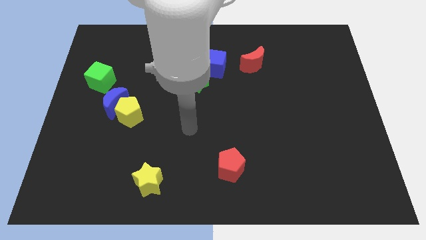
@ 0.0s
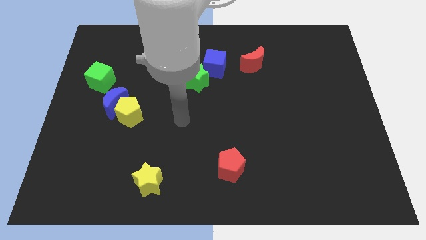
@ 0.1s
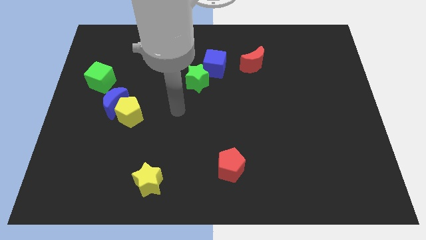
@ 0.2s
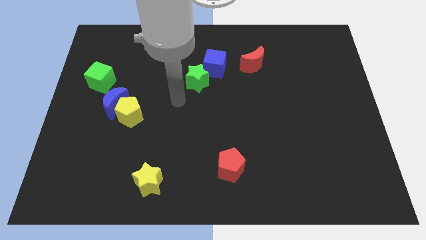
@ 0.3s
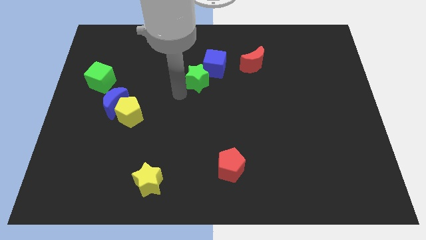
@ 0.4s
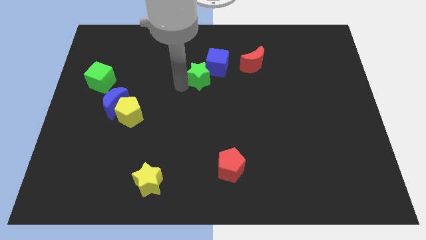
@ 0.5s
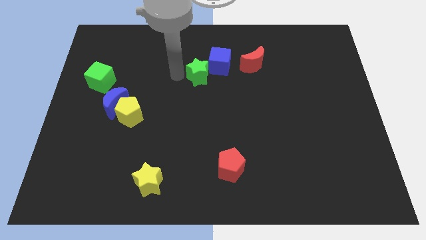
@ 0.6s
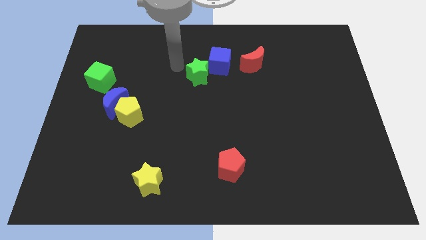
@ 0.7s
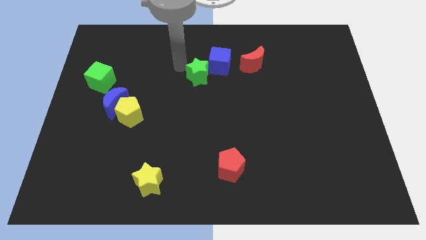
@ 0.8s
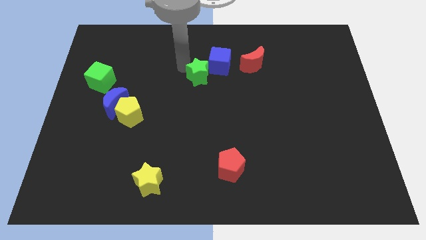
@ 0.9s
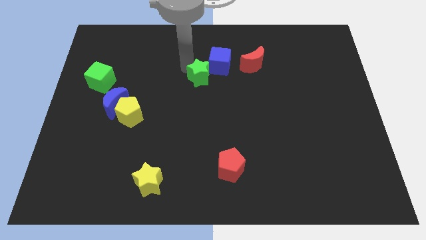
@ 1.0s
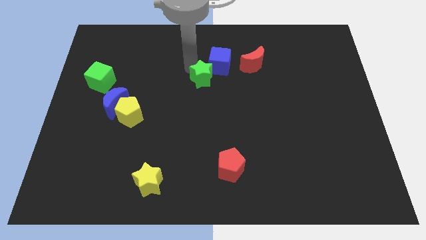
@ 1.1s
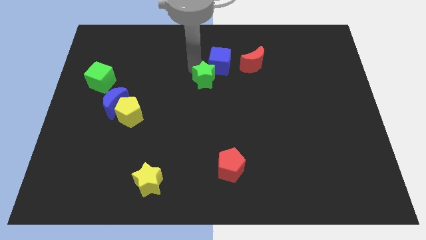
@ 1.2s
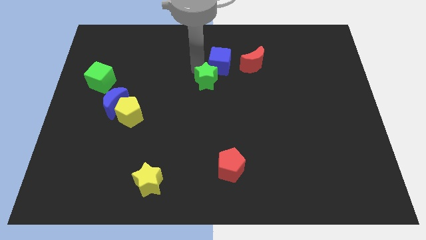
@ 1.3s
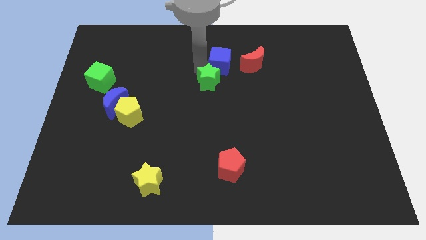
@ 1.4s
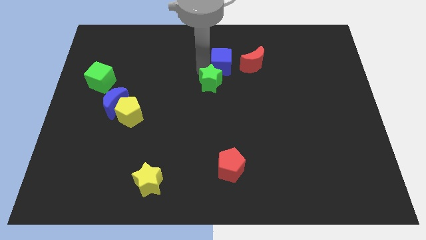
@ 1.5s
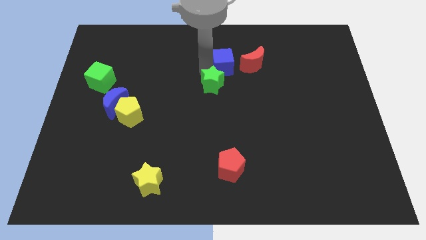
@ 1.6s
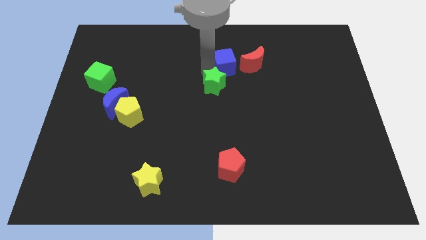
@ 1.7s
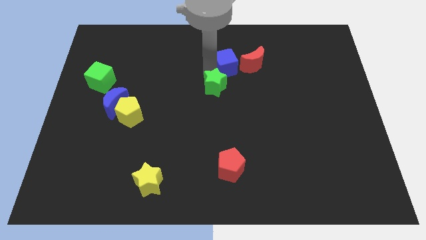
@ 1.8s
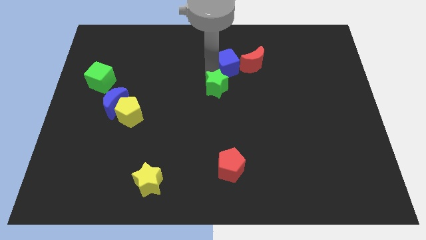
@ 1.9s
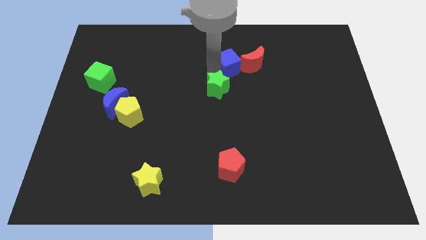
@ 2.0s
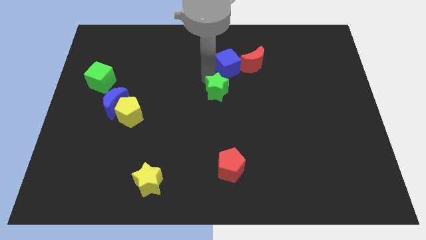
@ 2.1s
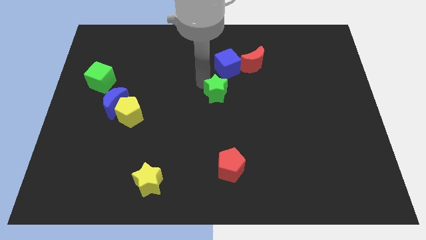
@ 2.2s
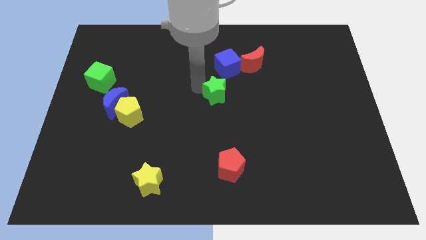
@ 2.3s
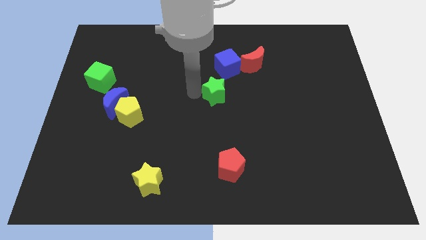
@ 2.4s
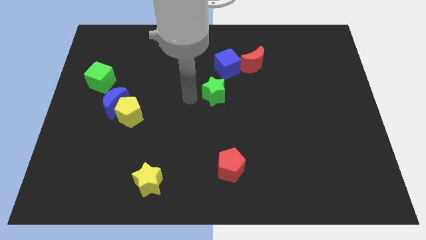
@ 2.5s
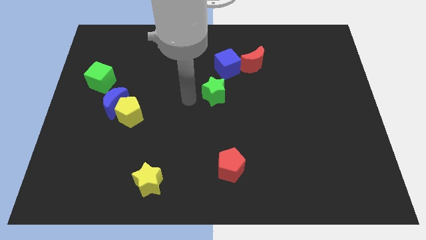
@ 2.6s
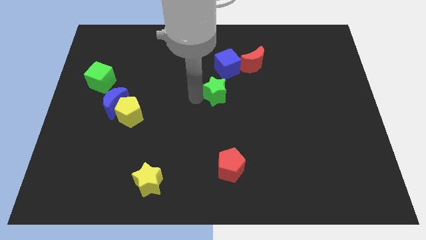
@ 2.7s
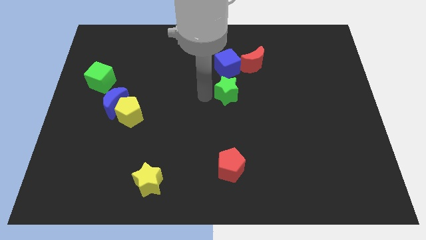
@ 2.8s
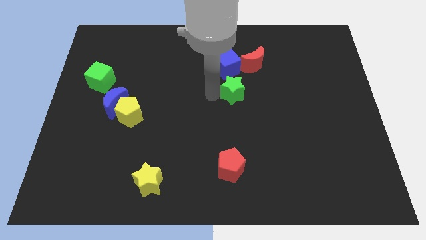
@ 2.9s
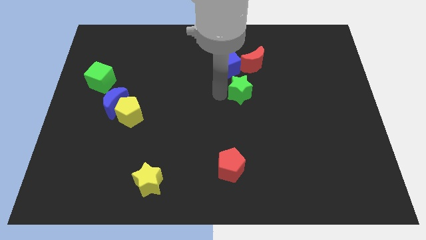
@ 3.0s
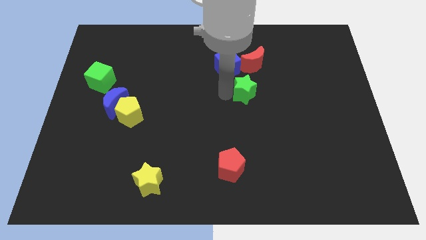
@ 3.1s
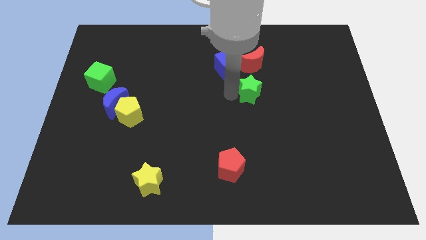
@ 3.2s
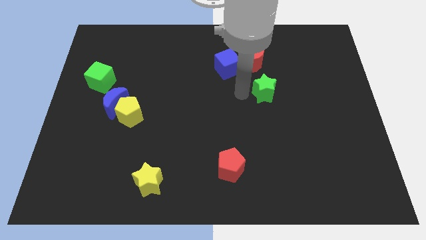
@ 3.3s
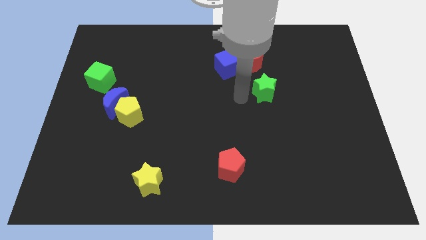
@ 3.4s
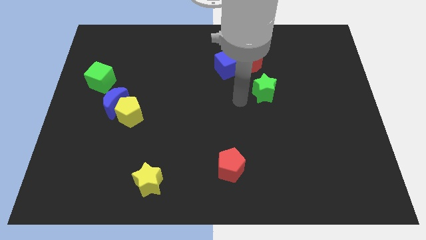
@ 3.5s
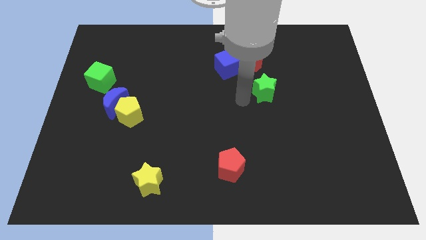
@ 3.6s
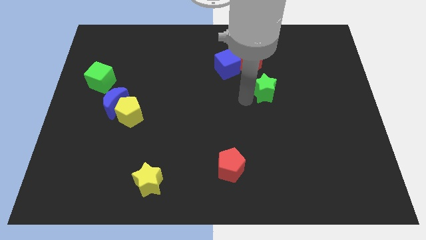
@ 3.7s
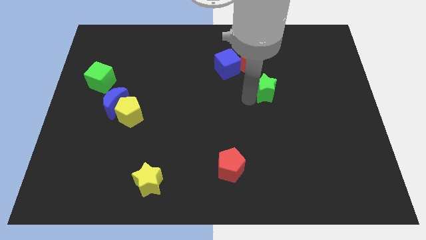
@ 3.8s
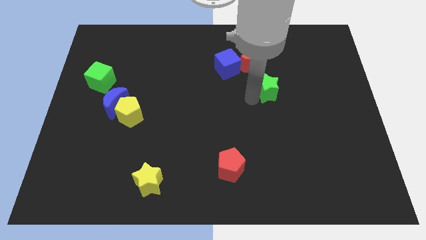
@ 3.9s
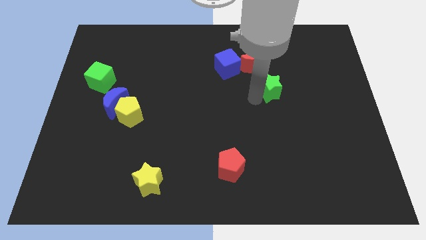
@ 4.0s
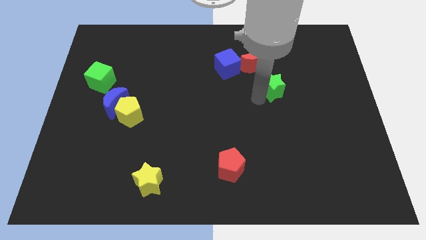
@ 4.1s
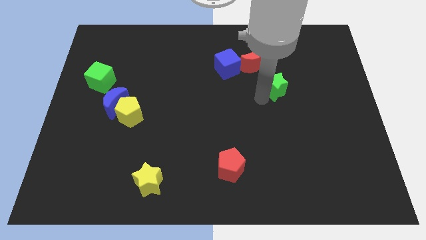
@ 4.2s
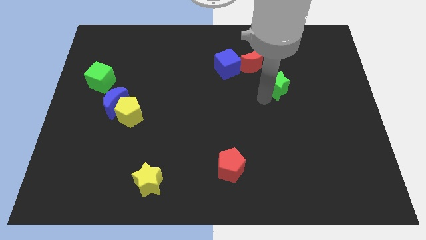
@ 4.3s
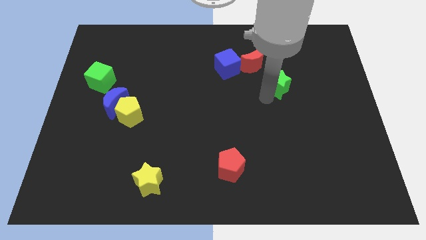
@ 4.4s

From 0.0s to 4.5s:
move the green star right

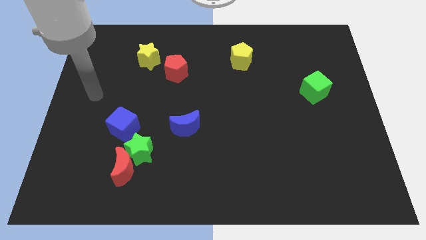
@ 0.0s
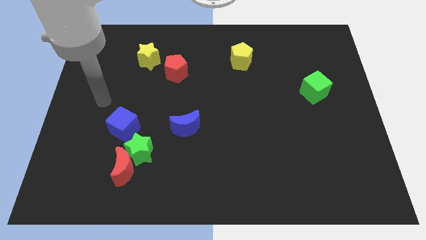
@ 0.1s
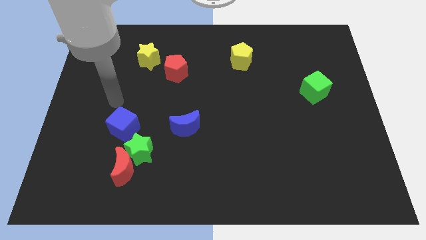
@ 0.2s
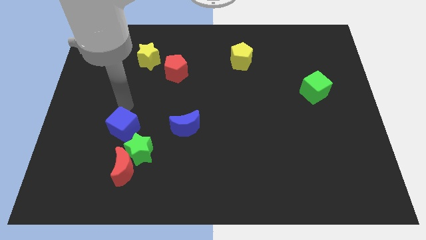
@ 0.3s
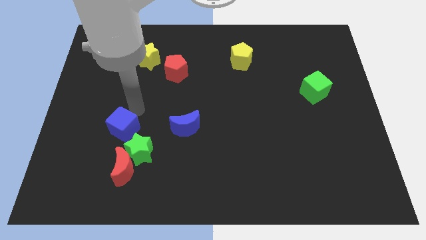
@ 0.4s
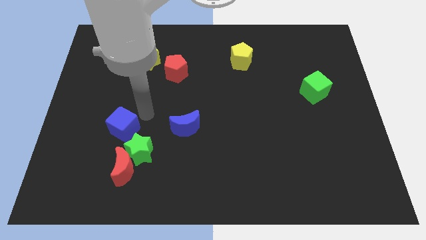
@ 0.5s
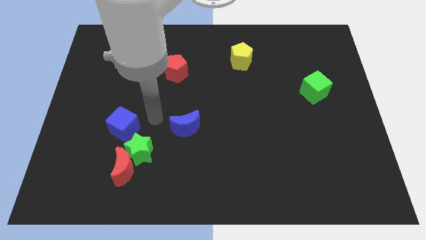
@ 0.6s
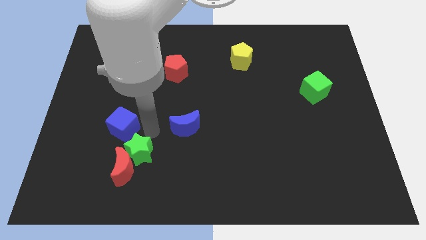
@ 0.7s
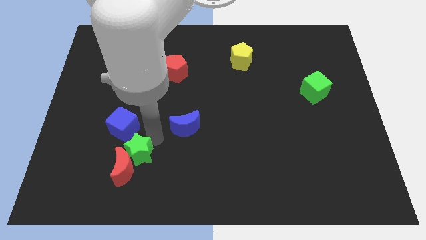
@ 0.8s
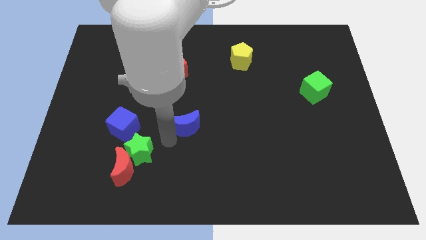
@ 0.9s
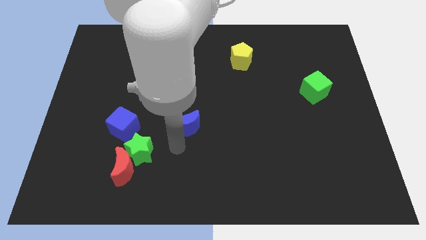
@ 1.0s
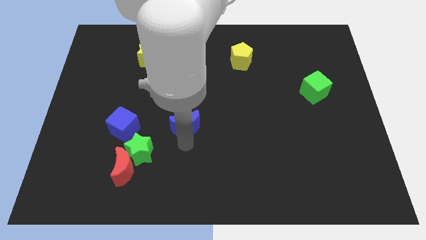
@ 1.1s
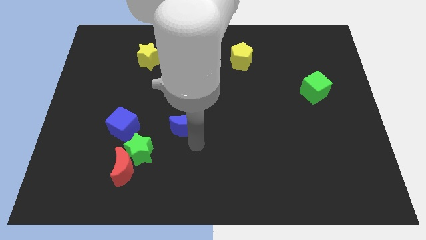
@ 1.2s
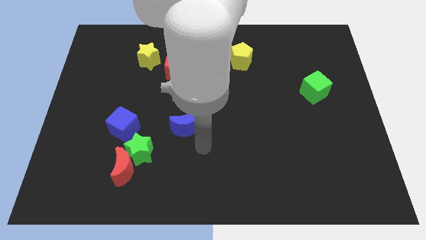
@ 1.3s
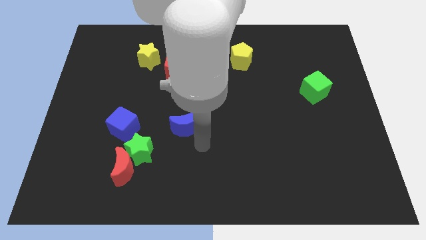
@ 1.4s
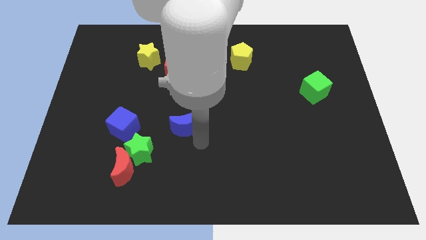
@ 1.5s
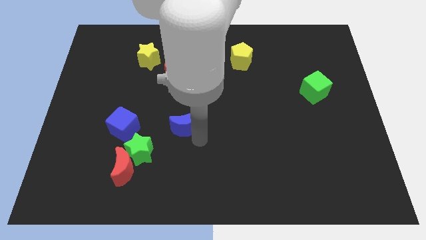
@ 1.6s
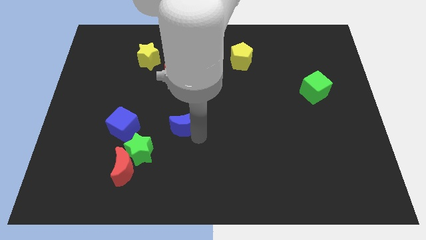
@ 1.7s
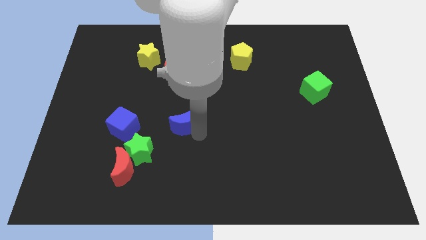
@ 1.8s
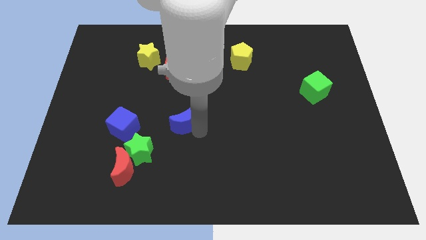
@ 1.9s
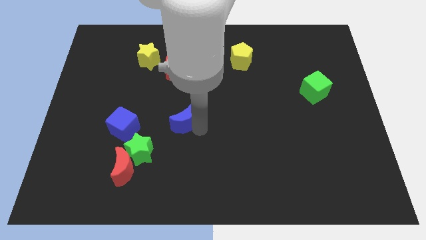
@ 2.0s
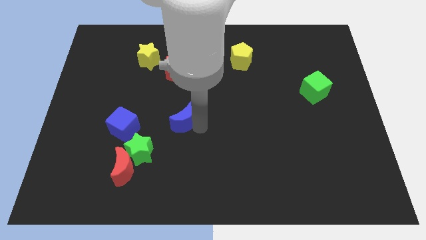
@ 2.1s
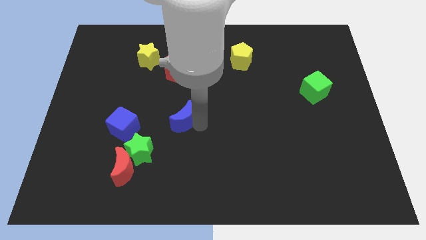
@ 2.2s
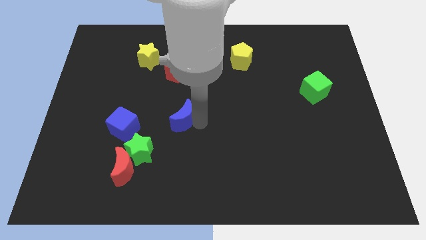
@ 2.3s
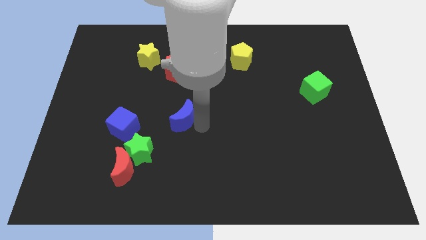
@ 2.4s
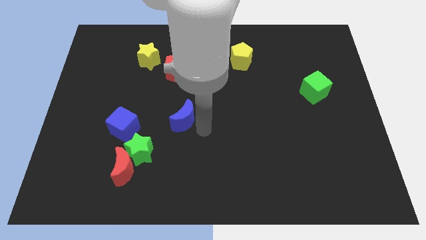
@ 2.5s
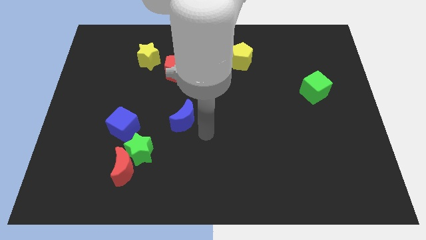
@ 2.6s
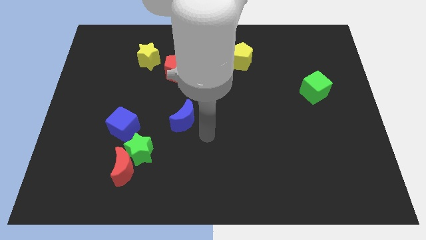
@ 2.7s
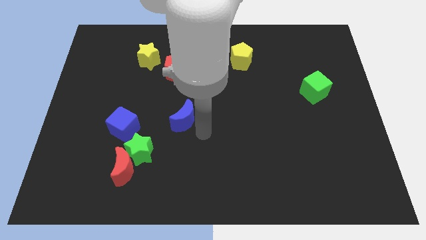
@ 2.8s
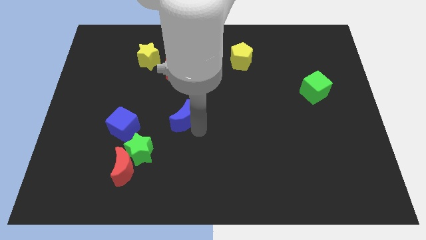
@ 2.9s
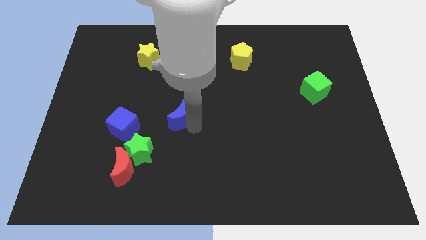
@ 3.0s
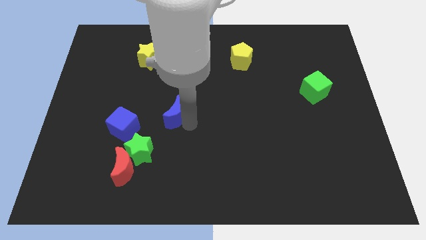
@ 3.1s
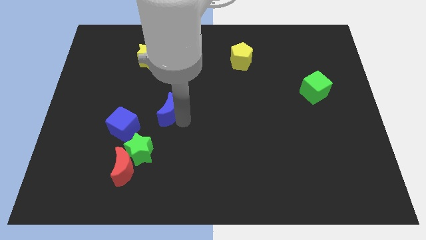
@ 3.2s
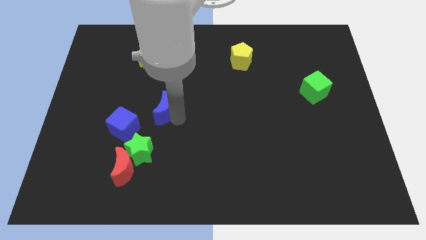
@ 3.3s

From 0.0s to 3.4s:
slide the blue moon up and to the left a bit
